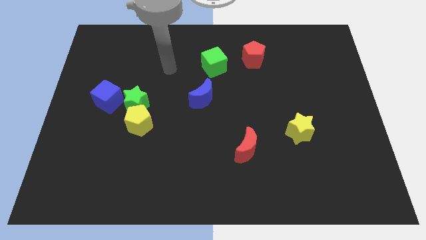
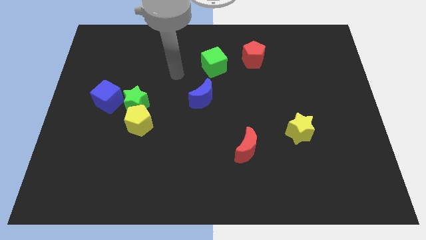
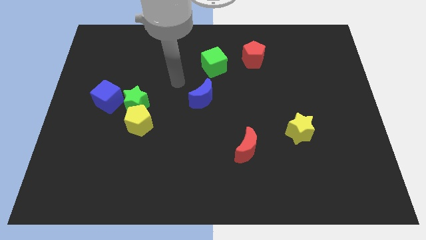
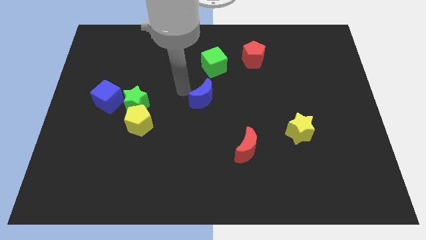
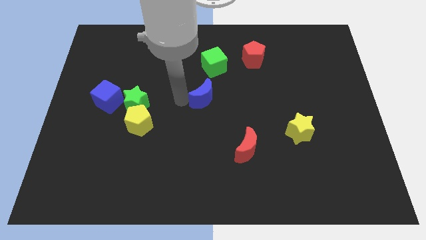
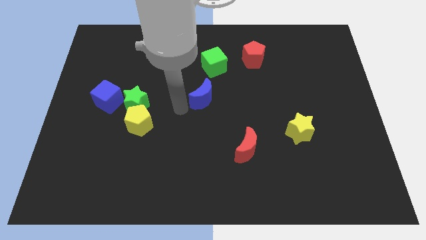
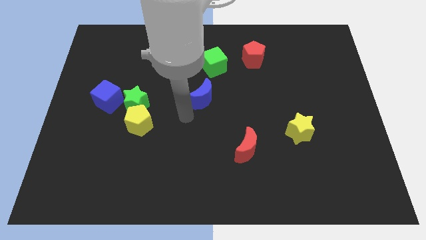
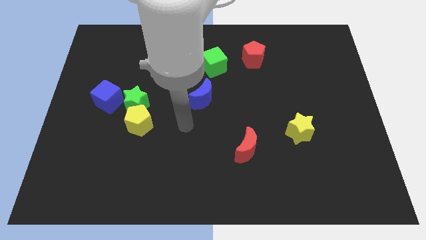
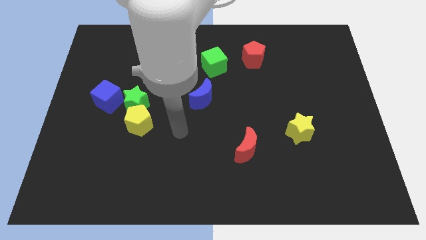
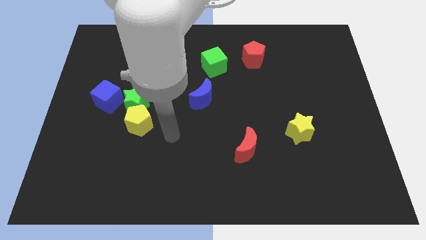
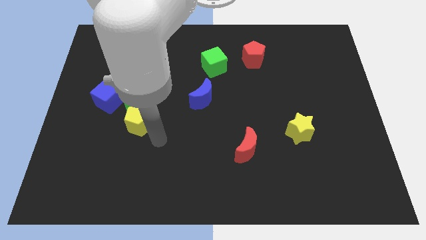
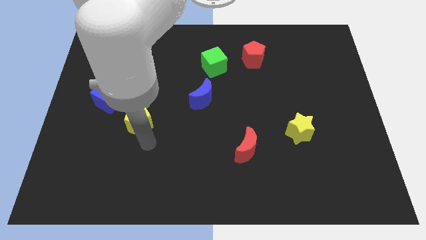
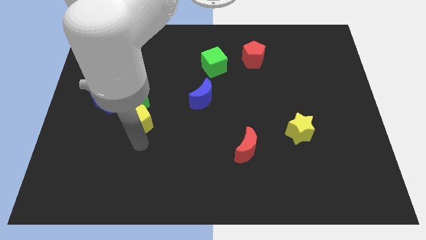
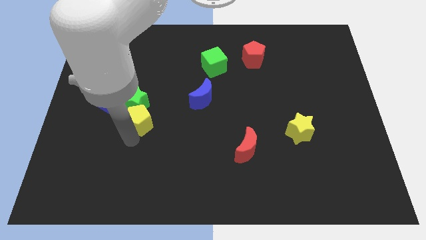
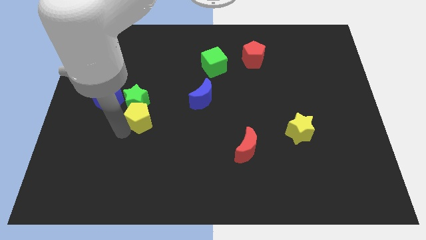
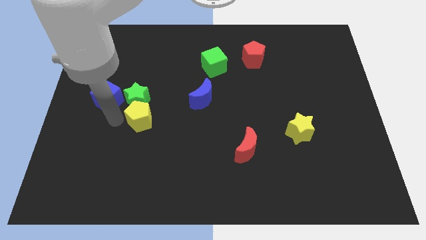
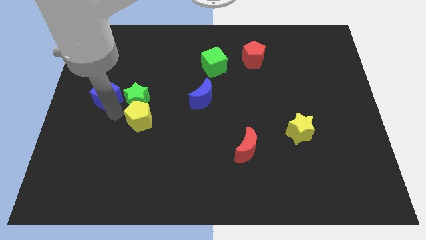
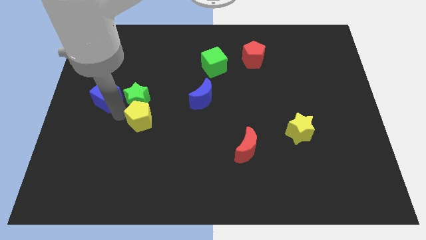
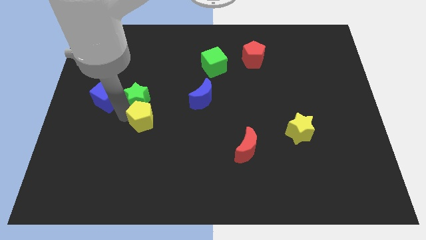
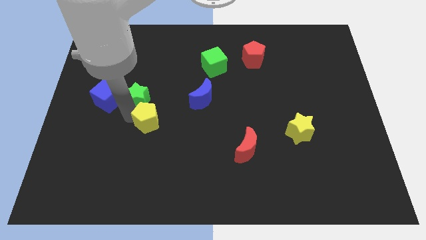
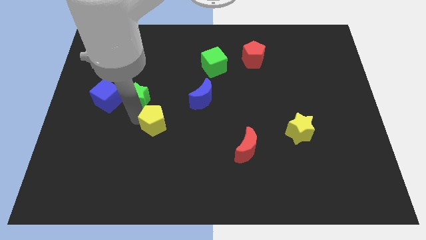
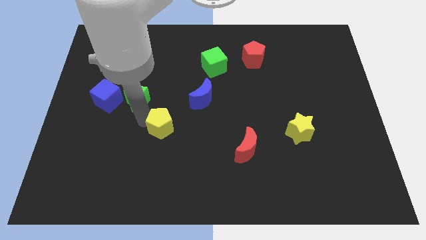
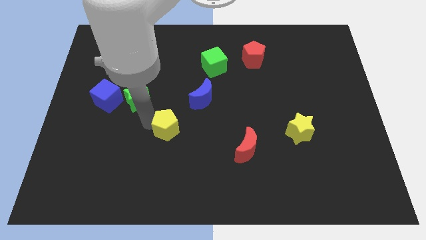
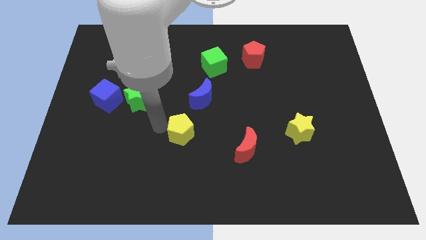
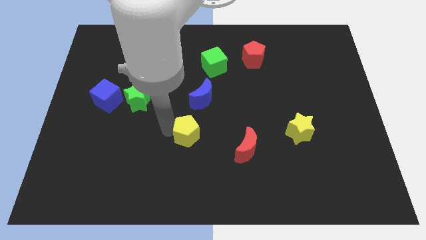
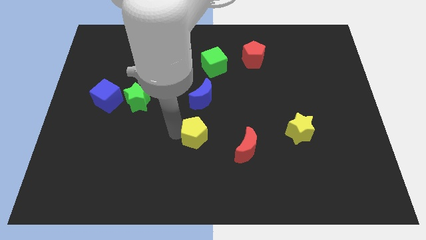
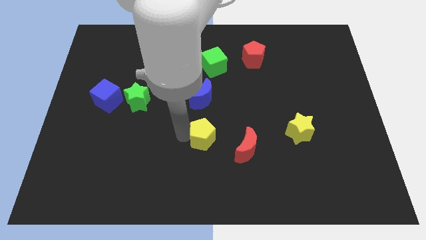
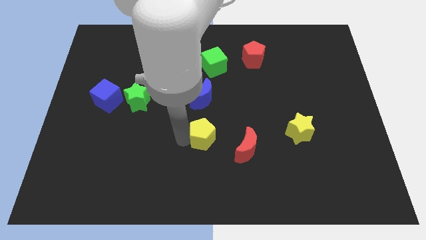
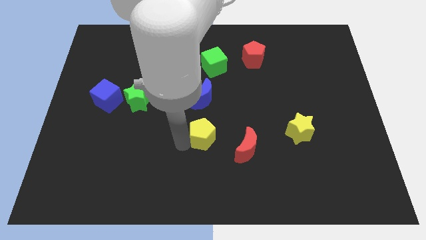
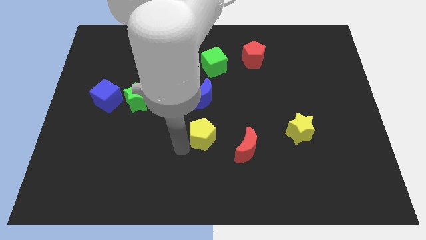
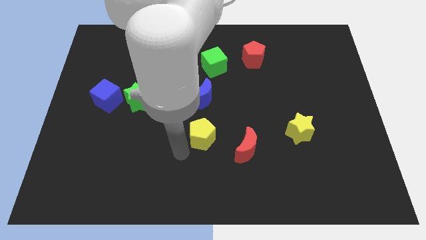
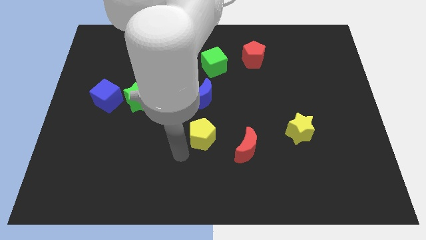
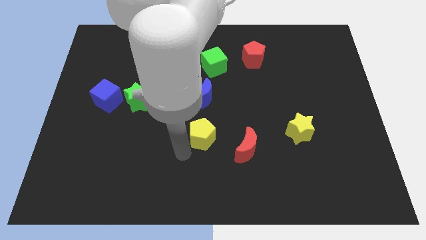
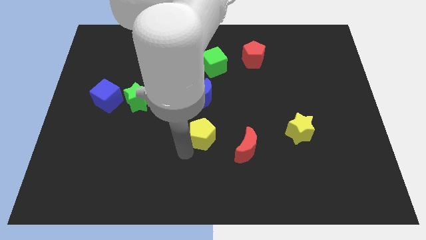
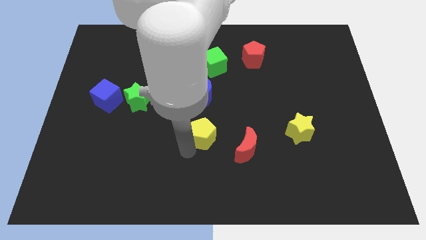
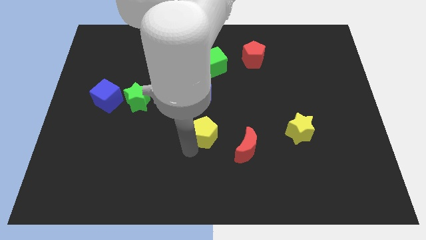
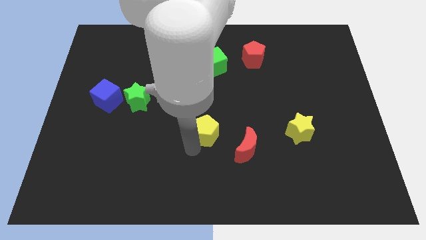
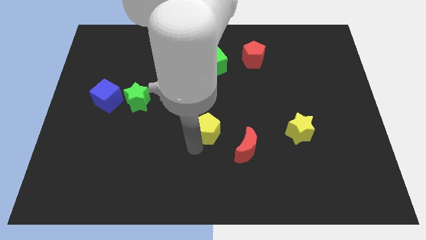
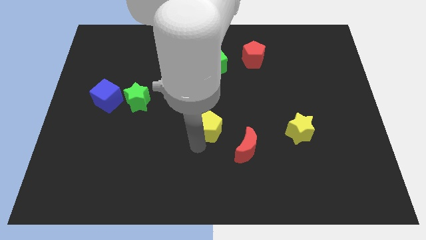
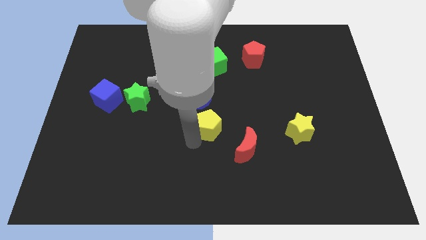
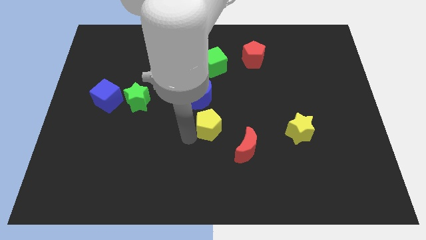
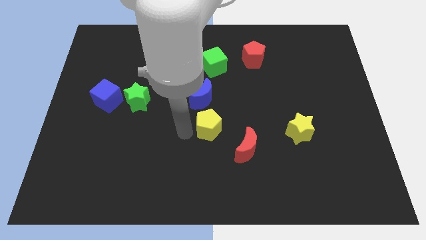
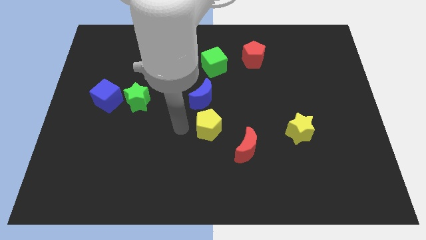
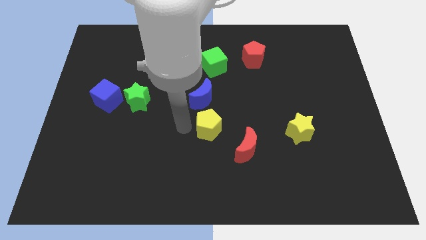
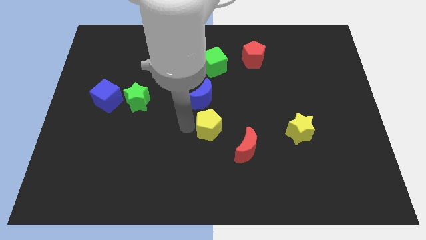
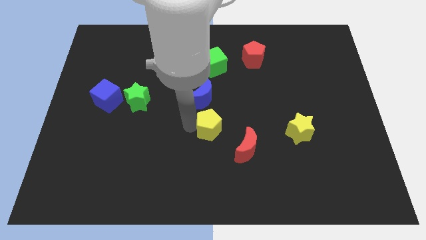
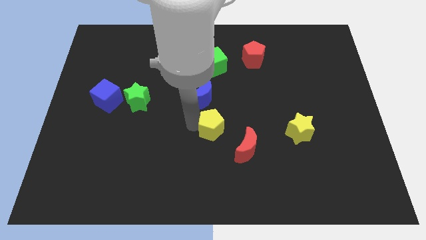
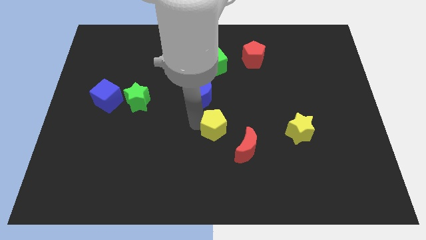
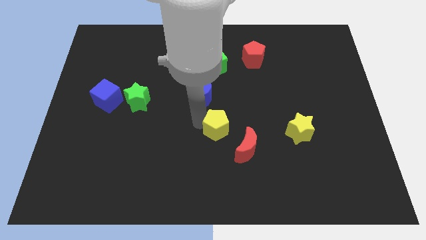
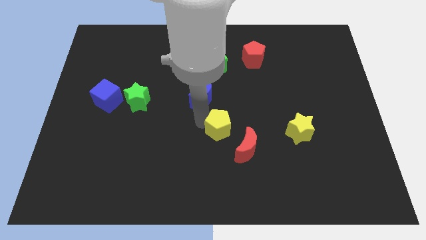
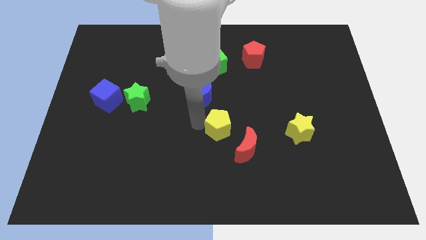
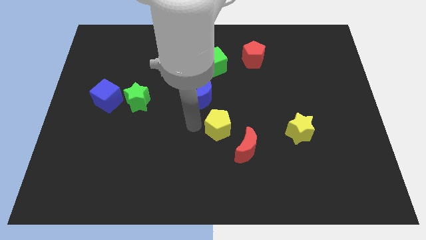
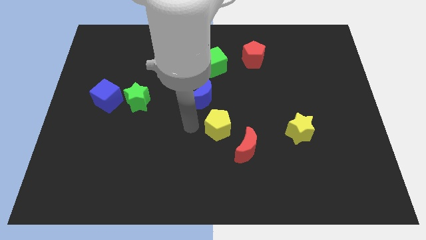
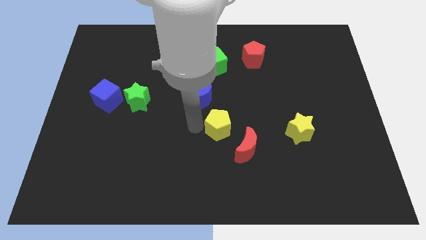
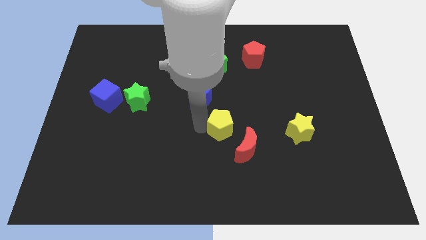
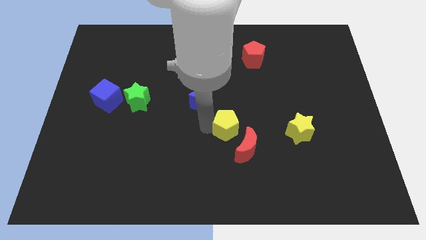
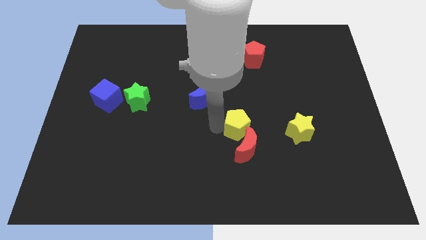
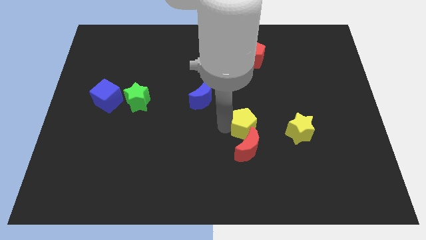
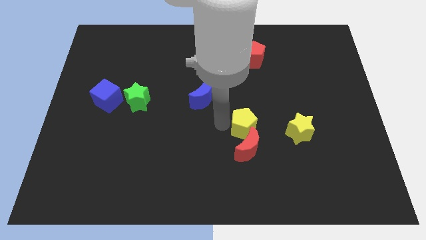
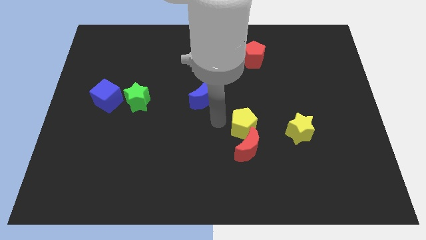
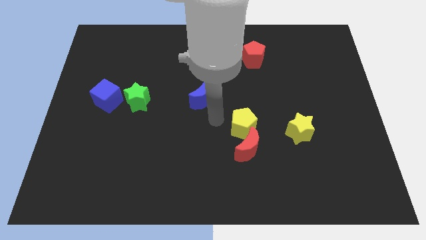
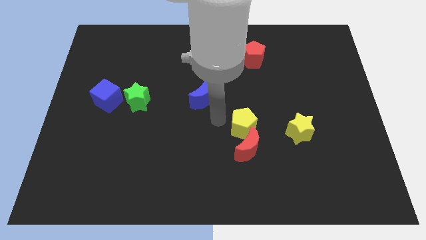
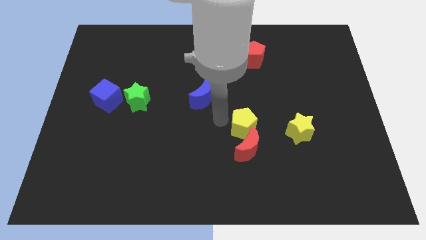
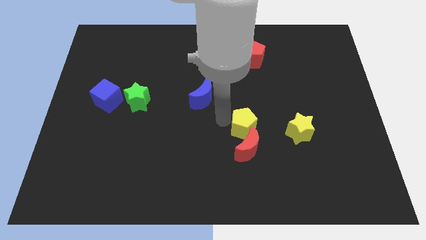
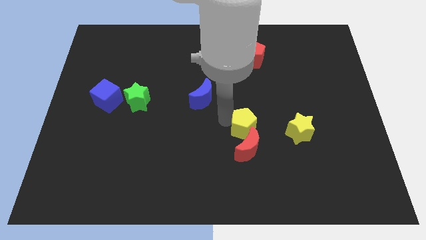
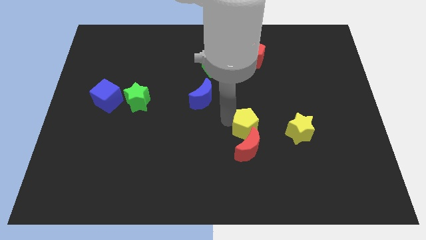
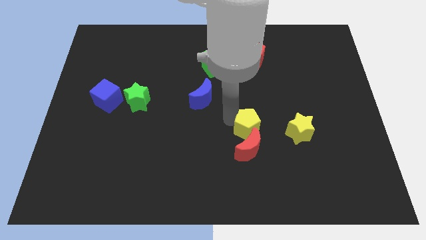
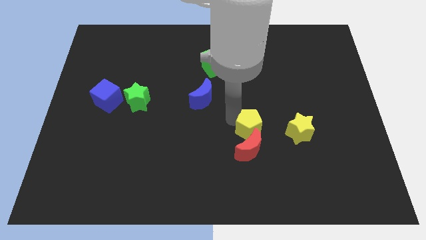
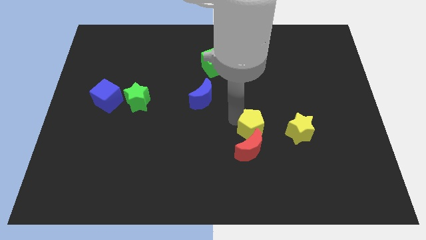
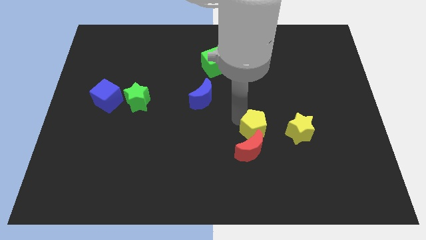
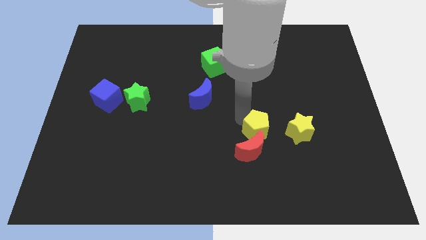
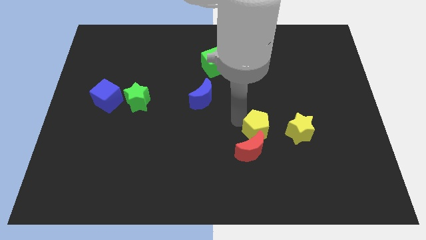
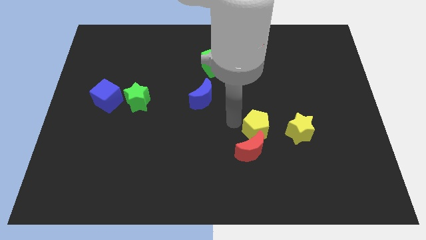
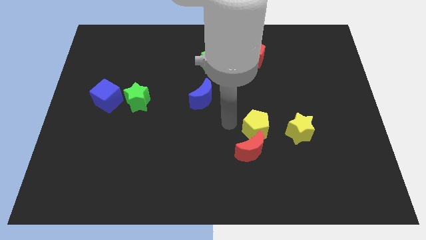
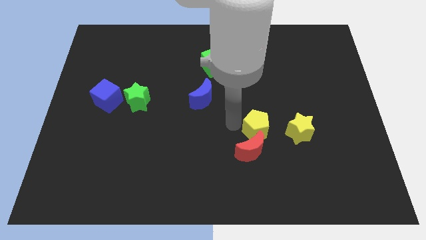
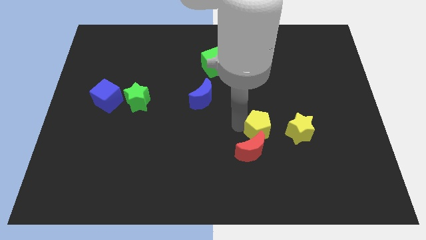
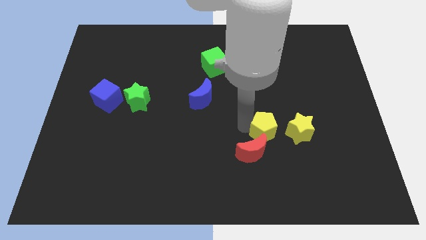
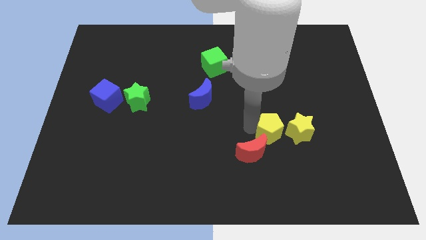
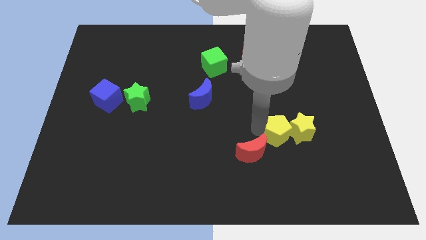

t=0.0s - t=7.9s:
push the yellow pentagon next to the yellow star
